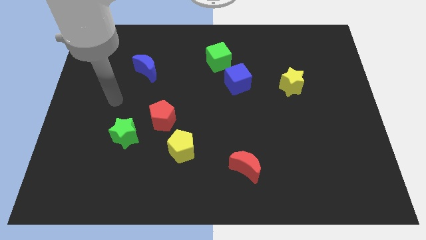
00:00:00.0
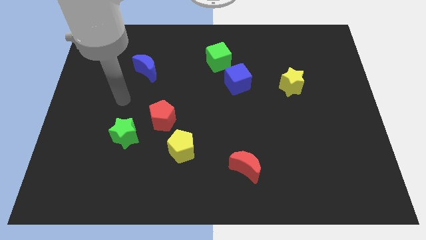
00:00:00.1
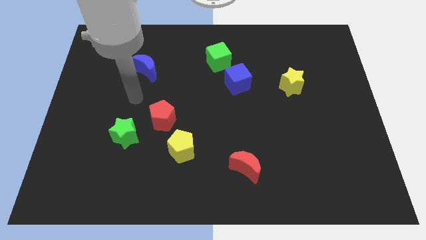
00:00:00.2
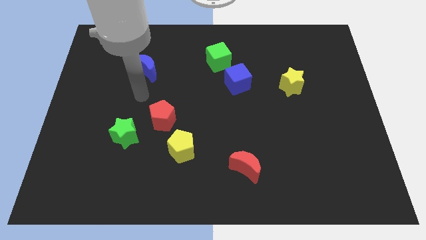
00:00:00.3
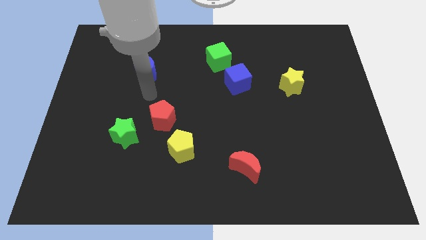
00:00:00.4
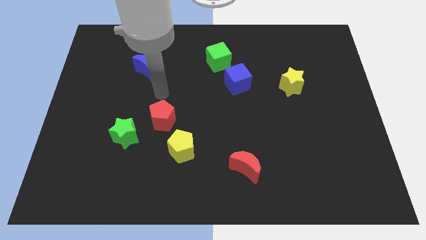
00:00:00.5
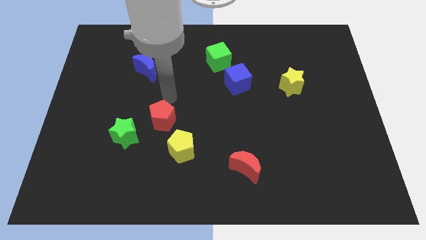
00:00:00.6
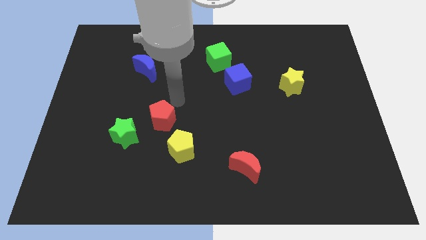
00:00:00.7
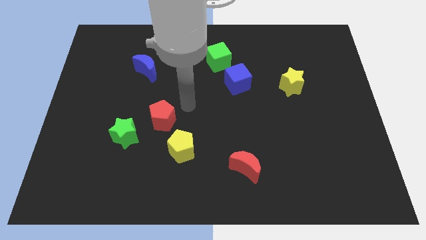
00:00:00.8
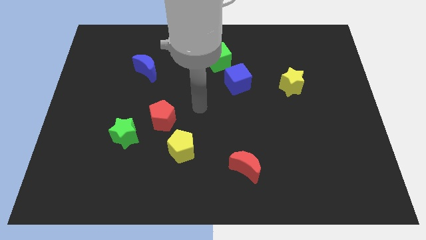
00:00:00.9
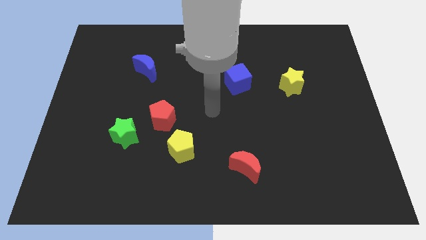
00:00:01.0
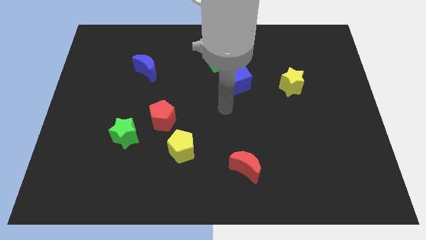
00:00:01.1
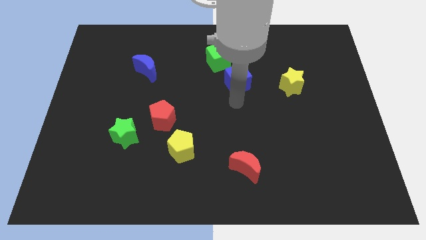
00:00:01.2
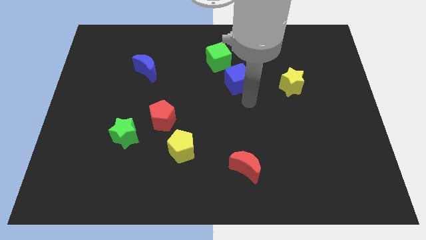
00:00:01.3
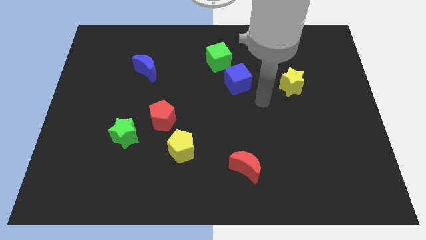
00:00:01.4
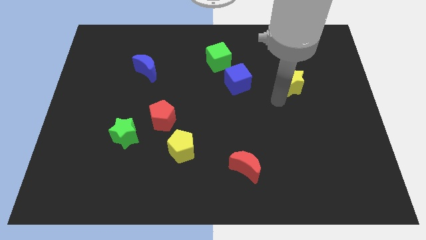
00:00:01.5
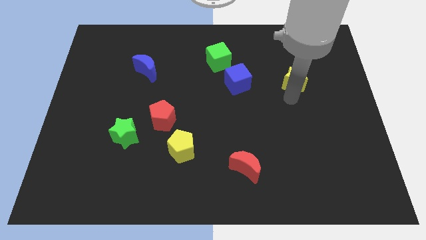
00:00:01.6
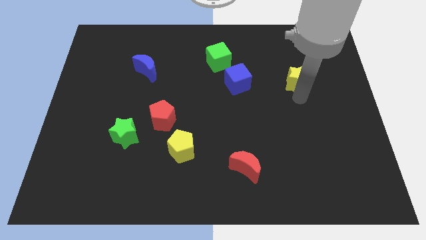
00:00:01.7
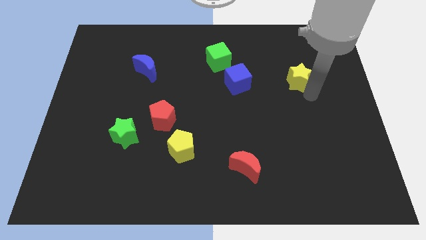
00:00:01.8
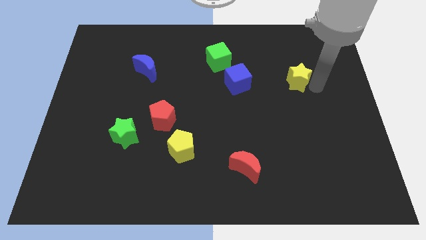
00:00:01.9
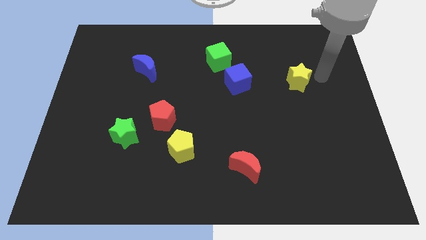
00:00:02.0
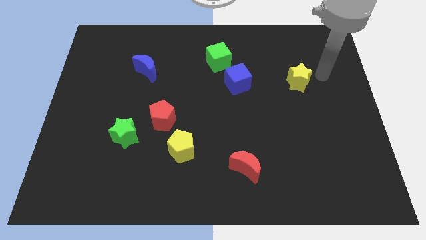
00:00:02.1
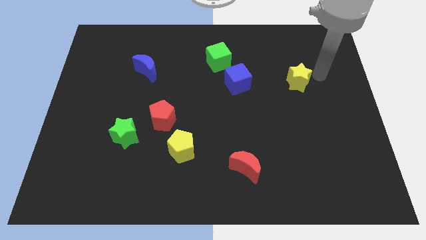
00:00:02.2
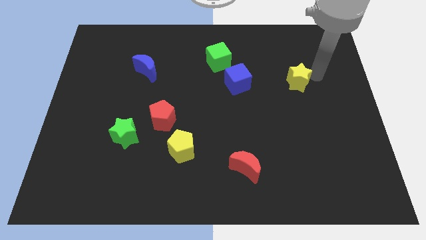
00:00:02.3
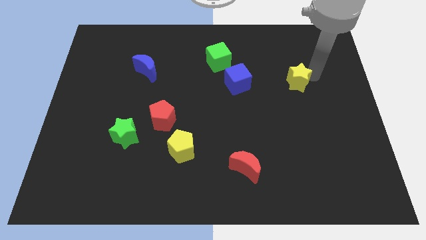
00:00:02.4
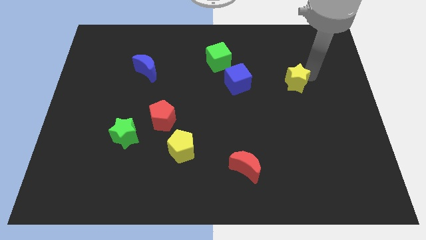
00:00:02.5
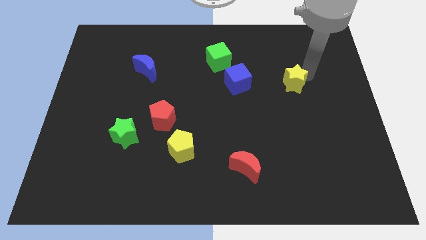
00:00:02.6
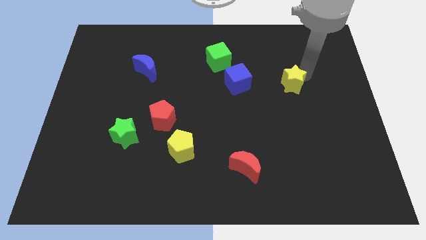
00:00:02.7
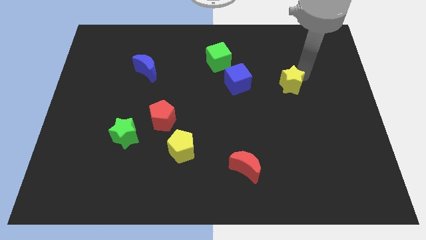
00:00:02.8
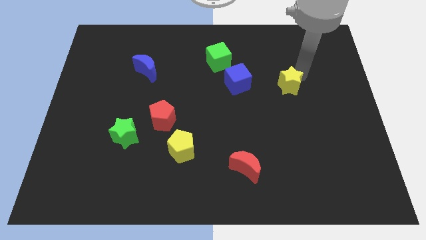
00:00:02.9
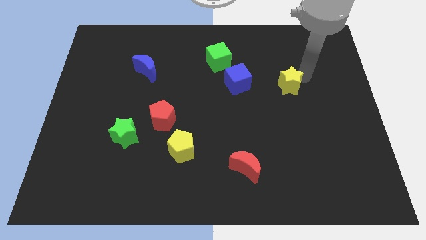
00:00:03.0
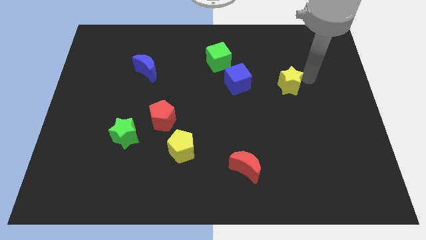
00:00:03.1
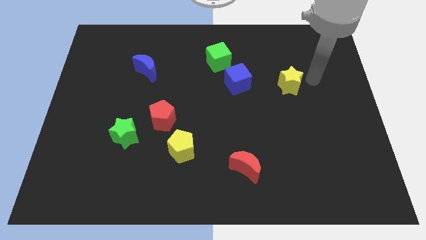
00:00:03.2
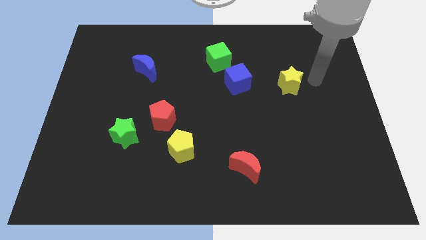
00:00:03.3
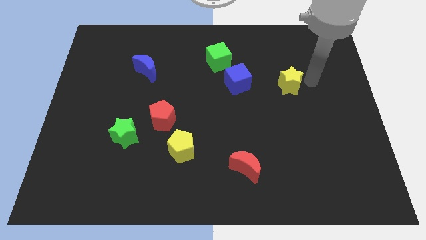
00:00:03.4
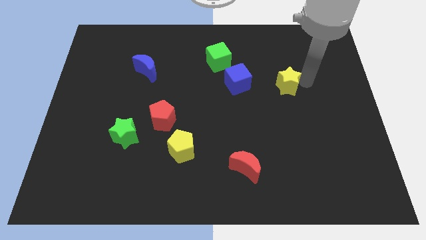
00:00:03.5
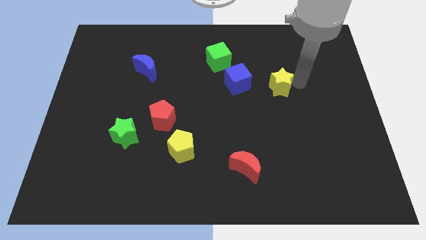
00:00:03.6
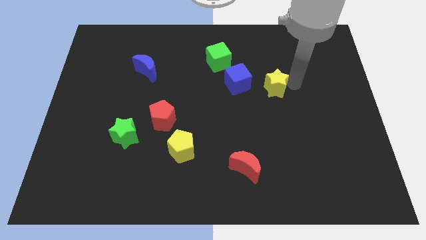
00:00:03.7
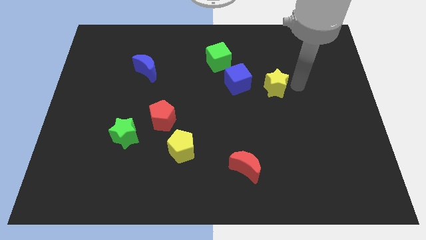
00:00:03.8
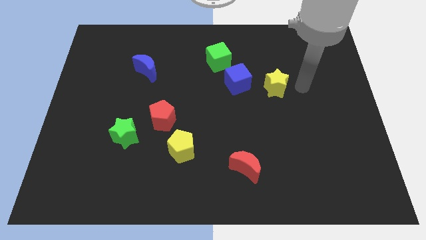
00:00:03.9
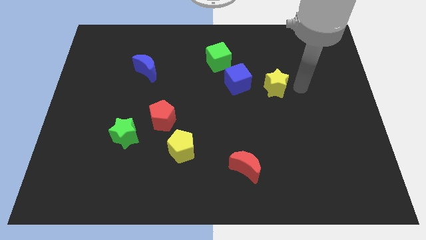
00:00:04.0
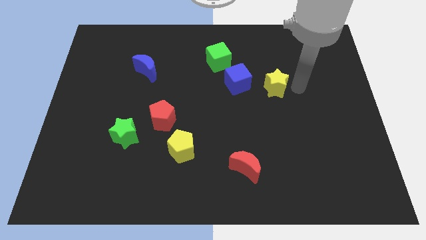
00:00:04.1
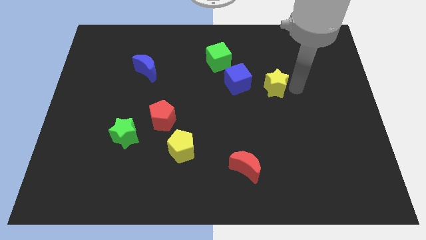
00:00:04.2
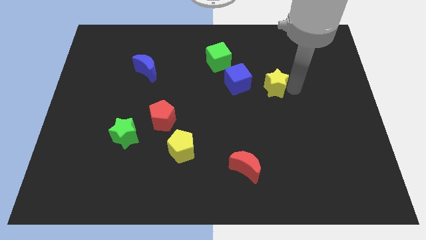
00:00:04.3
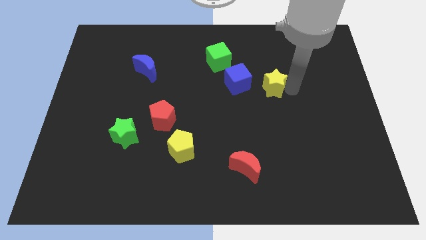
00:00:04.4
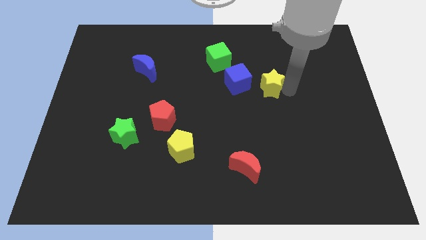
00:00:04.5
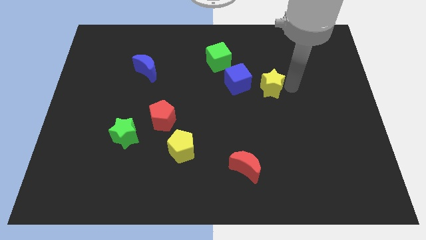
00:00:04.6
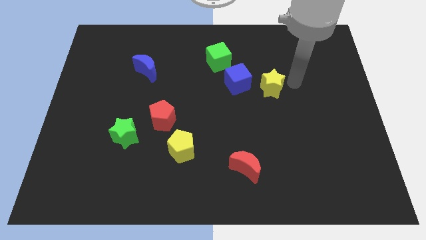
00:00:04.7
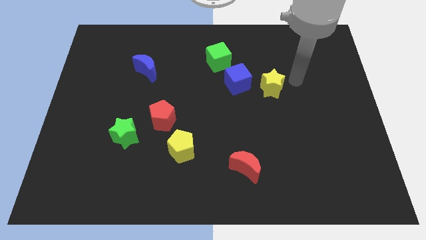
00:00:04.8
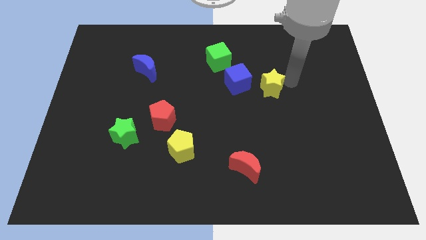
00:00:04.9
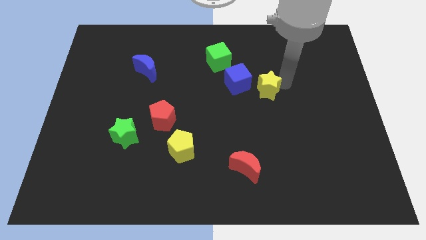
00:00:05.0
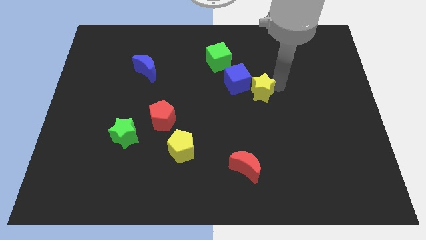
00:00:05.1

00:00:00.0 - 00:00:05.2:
move the yellow star to the center

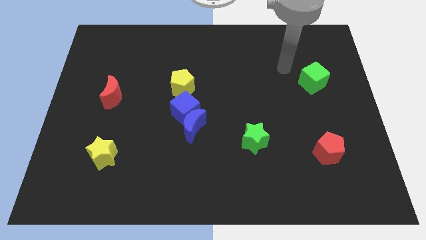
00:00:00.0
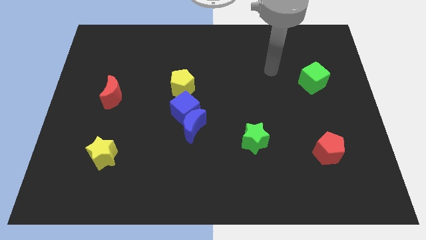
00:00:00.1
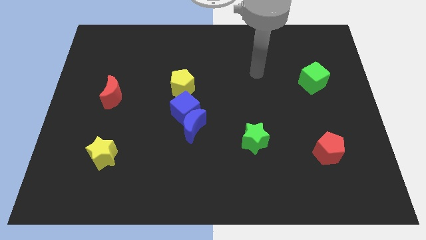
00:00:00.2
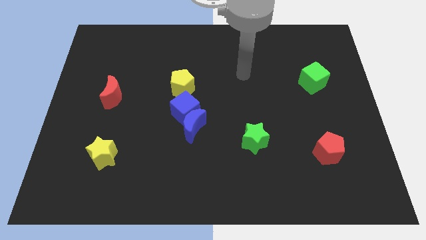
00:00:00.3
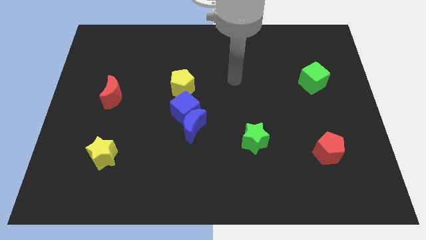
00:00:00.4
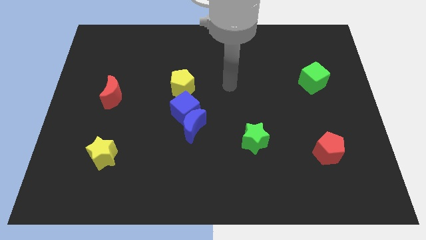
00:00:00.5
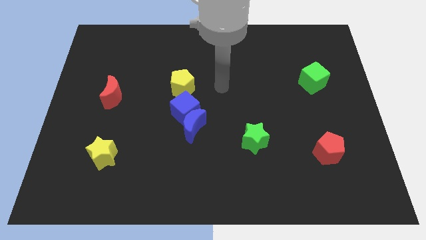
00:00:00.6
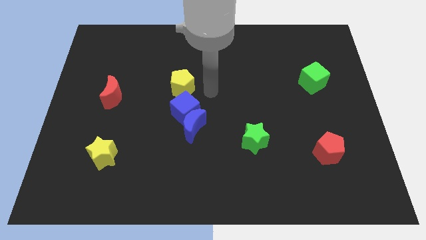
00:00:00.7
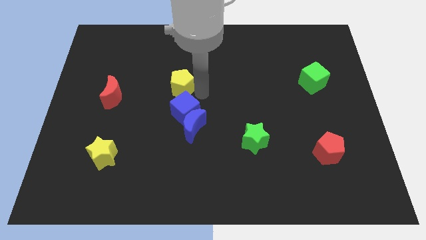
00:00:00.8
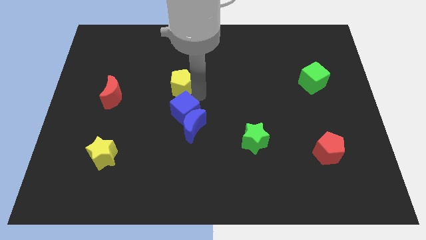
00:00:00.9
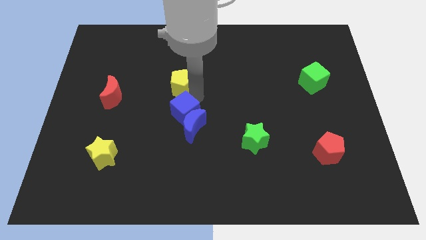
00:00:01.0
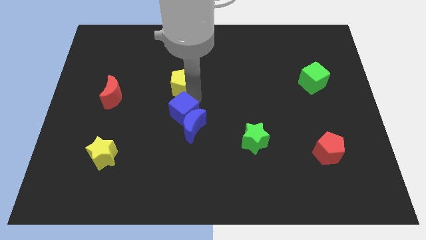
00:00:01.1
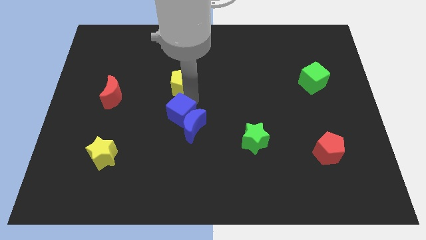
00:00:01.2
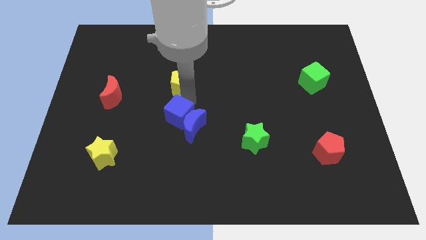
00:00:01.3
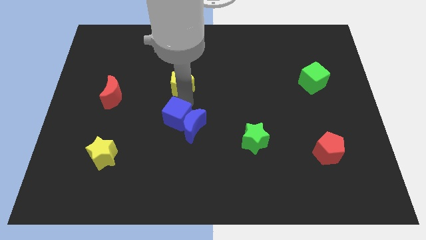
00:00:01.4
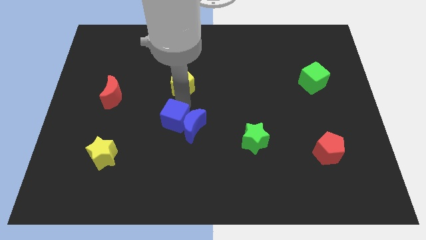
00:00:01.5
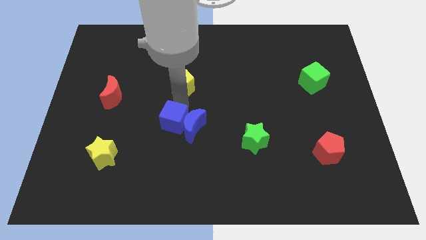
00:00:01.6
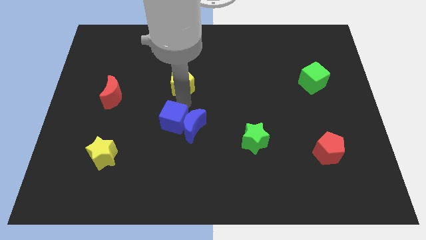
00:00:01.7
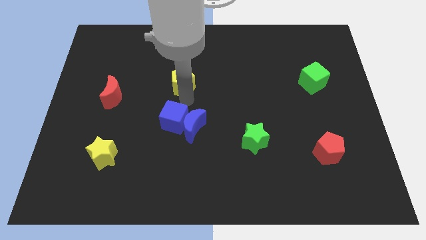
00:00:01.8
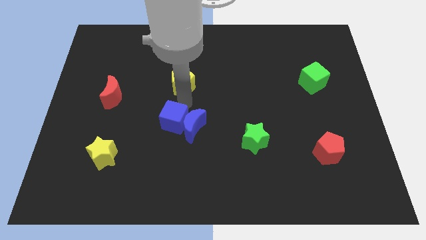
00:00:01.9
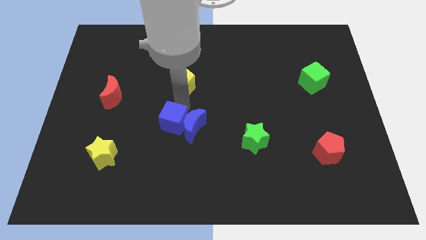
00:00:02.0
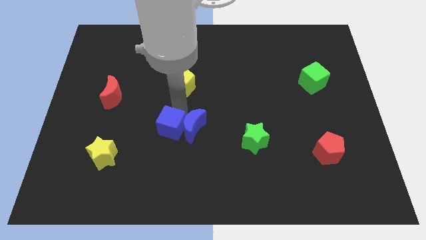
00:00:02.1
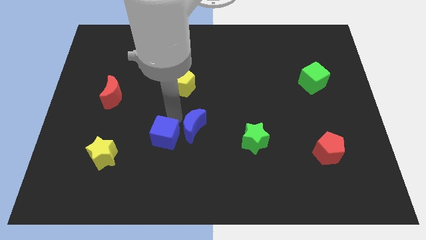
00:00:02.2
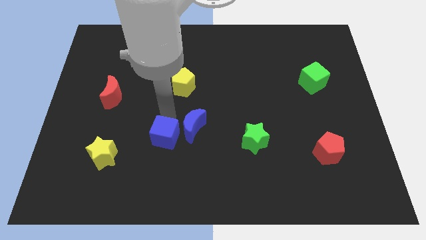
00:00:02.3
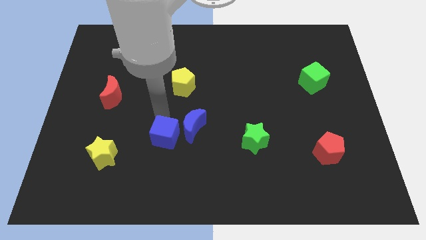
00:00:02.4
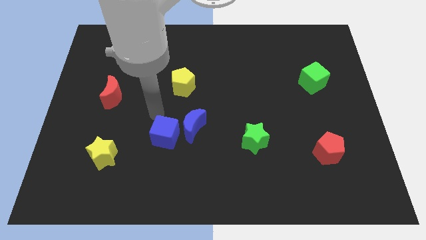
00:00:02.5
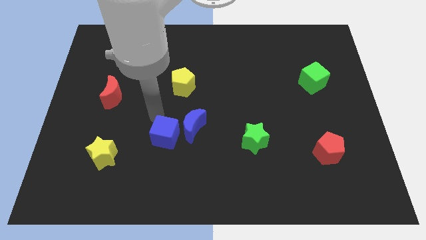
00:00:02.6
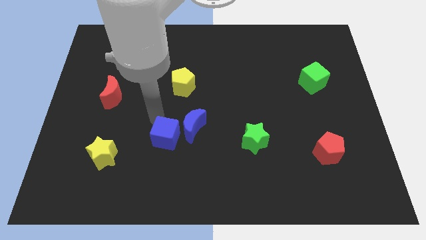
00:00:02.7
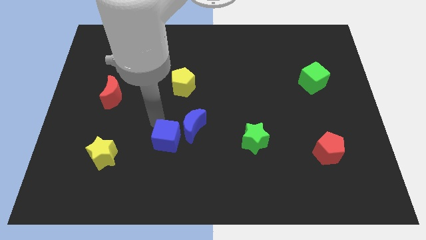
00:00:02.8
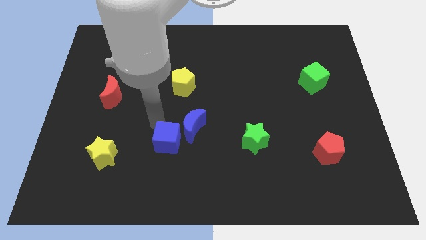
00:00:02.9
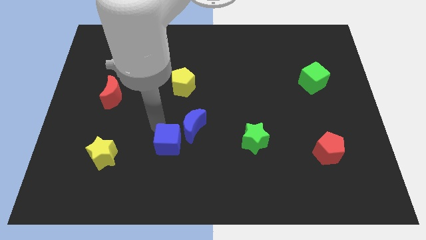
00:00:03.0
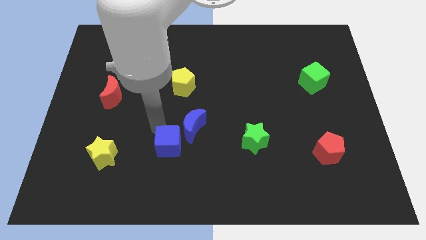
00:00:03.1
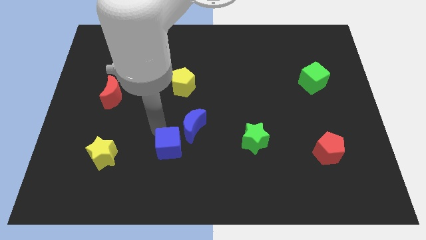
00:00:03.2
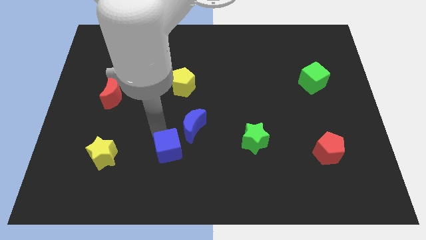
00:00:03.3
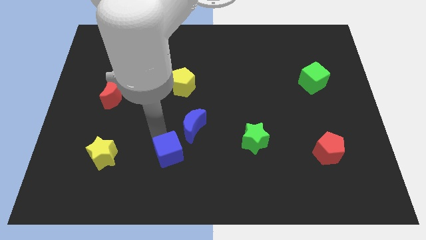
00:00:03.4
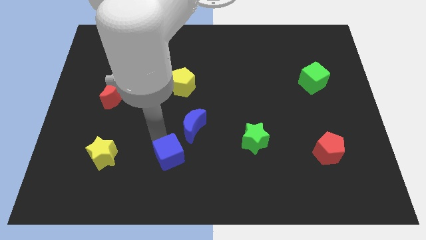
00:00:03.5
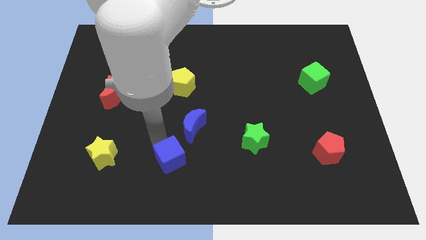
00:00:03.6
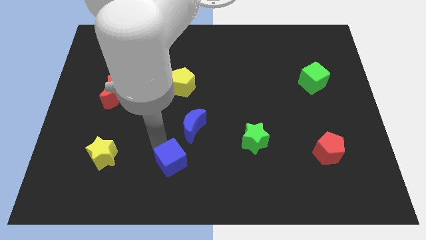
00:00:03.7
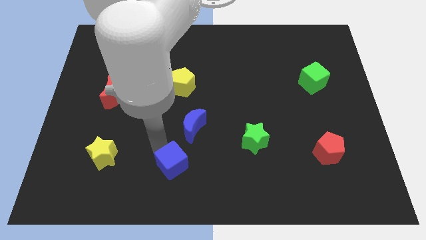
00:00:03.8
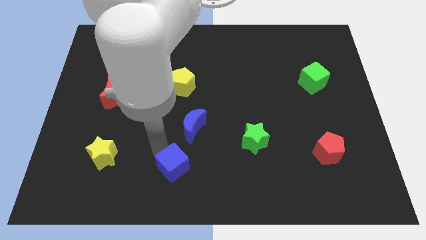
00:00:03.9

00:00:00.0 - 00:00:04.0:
slide the blue cube to the bottom side
